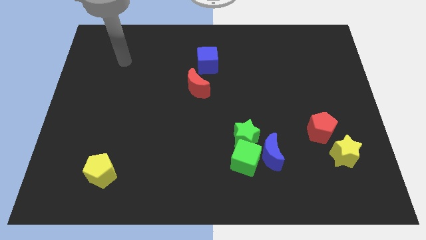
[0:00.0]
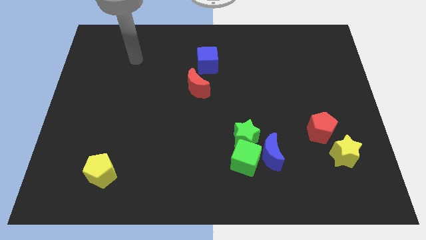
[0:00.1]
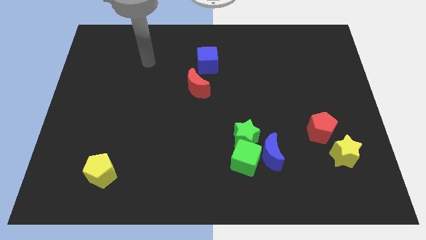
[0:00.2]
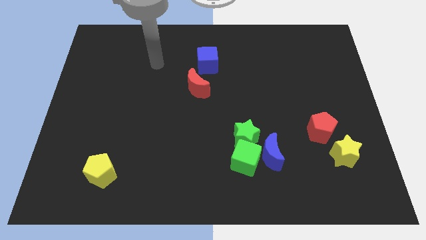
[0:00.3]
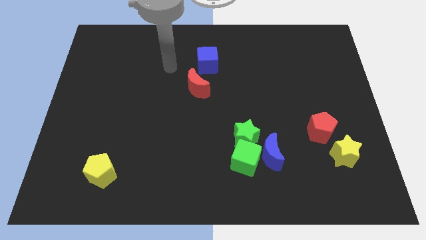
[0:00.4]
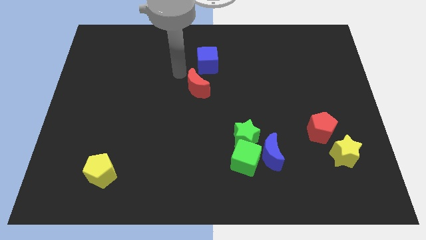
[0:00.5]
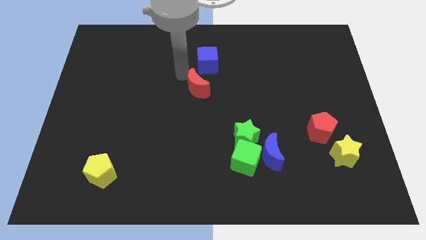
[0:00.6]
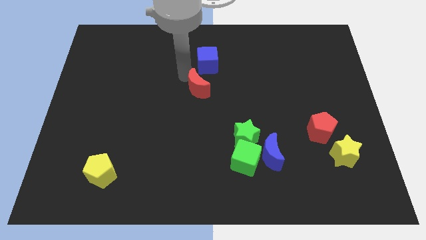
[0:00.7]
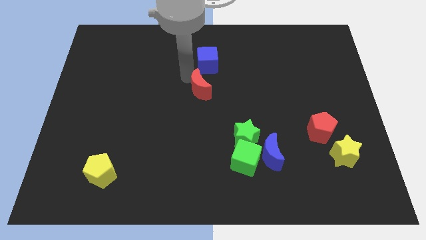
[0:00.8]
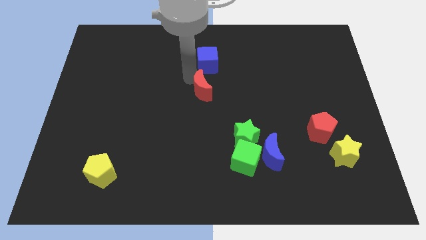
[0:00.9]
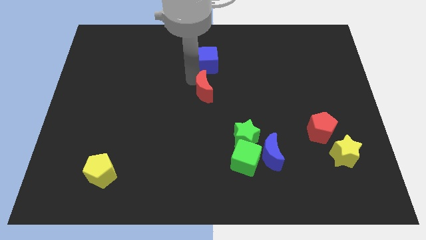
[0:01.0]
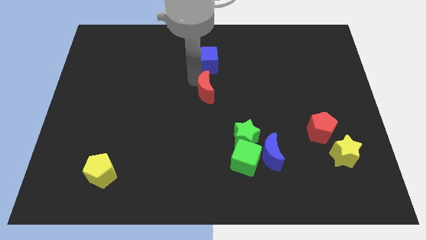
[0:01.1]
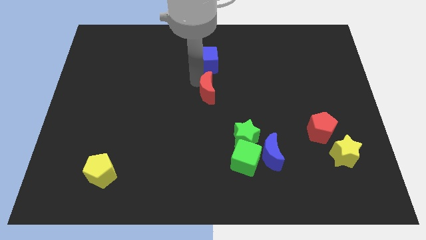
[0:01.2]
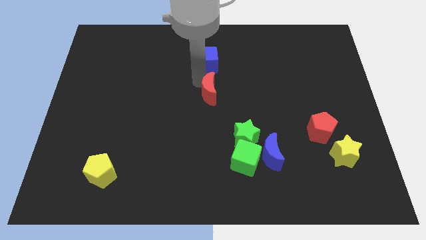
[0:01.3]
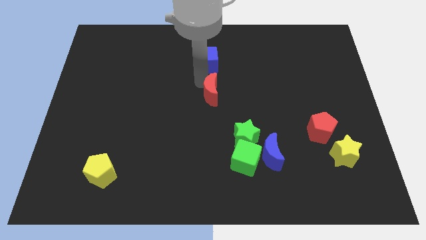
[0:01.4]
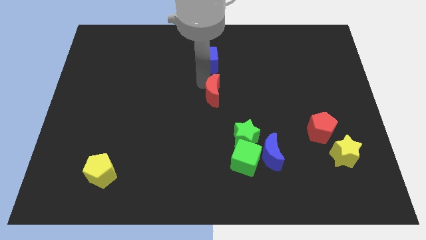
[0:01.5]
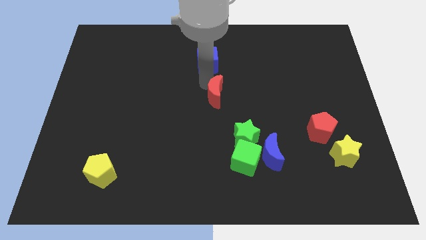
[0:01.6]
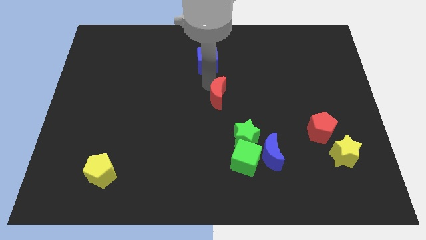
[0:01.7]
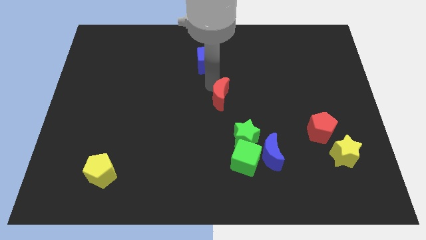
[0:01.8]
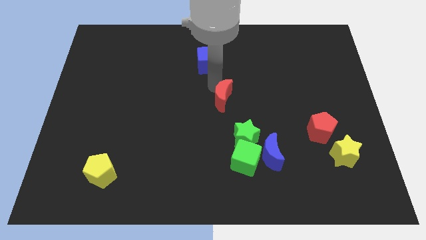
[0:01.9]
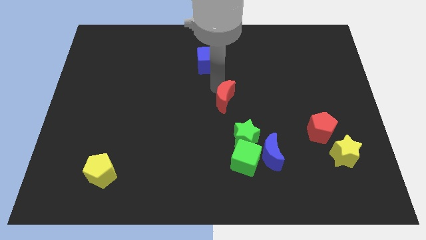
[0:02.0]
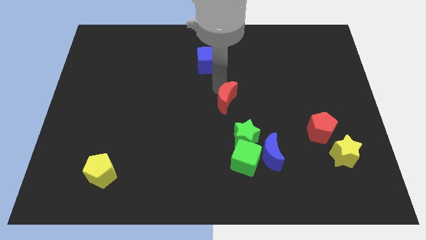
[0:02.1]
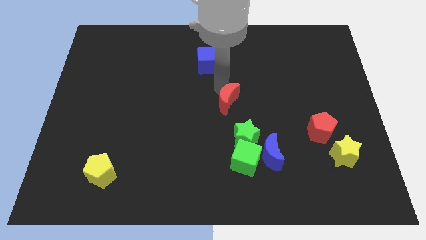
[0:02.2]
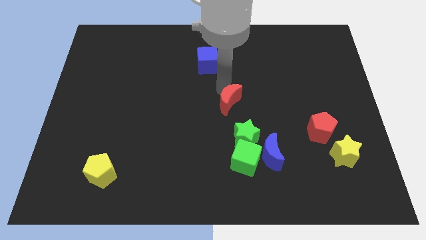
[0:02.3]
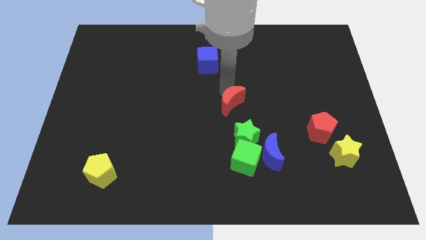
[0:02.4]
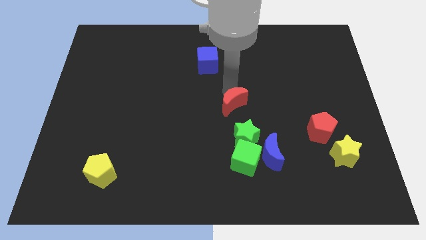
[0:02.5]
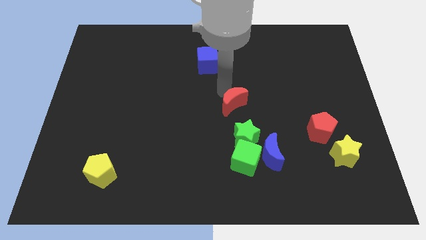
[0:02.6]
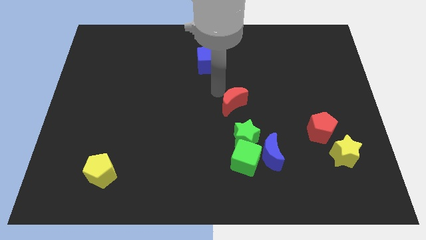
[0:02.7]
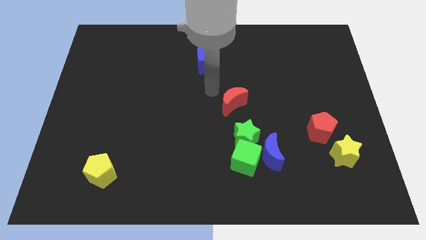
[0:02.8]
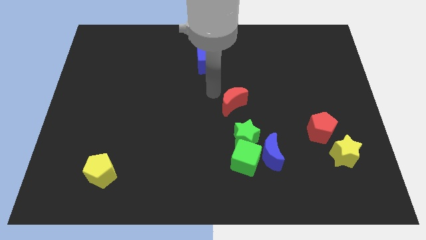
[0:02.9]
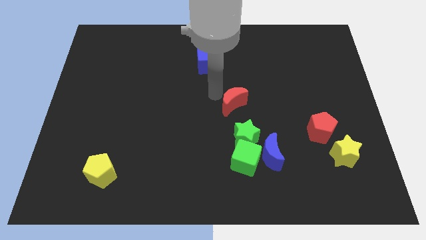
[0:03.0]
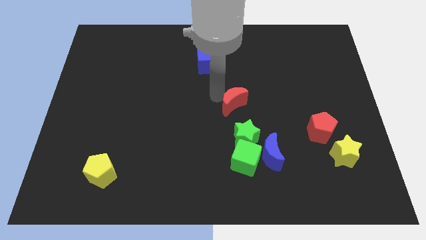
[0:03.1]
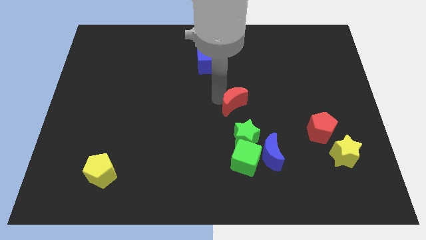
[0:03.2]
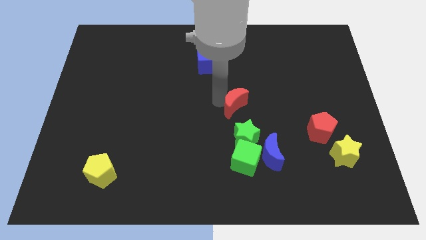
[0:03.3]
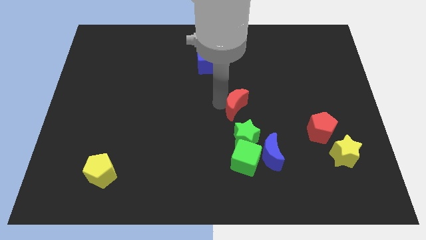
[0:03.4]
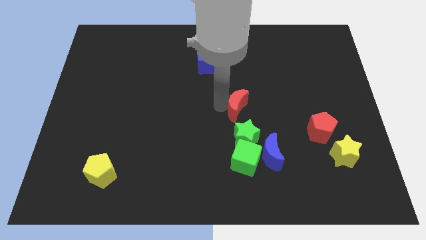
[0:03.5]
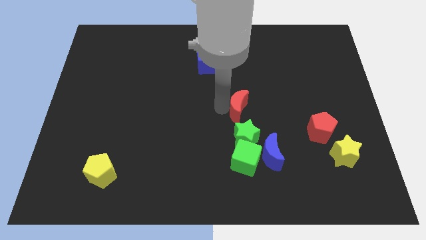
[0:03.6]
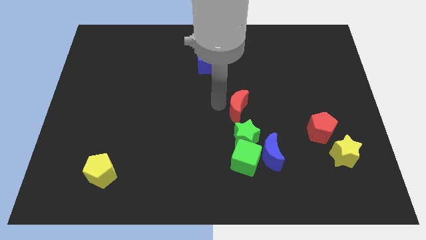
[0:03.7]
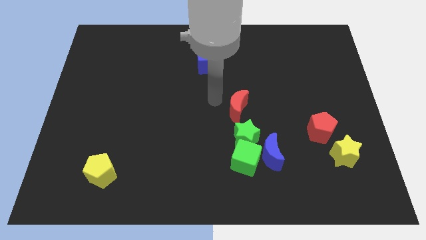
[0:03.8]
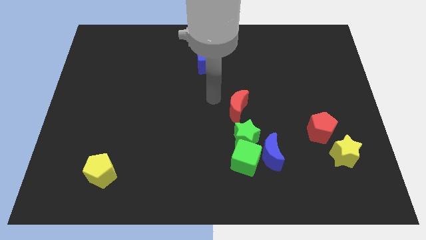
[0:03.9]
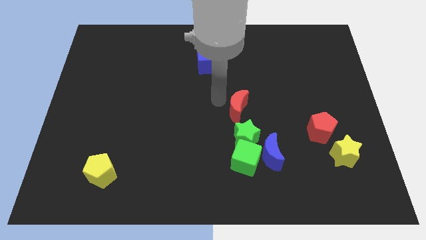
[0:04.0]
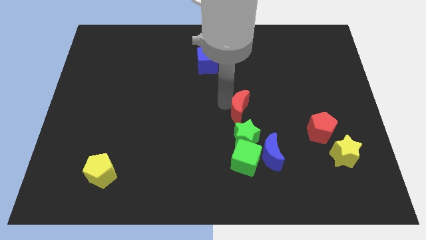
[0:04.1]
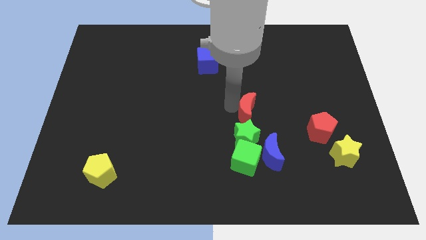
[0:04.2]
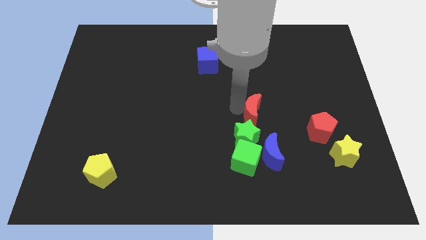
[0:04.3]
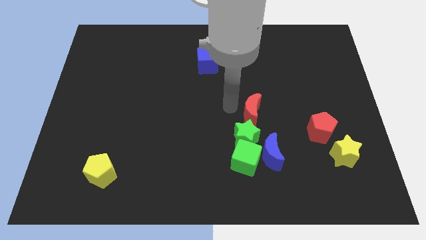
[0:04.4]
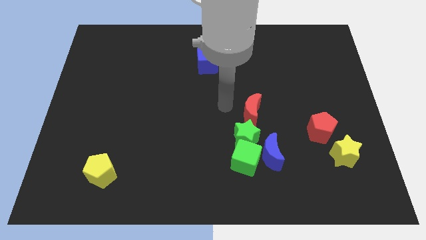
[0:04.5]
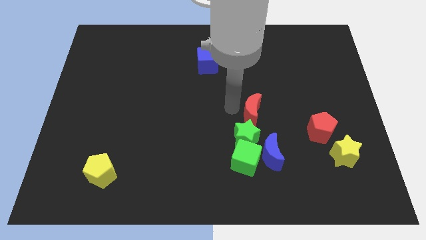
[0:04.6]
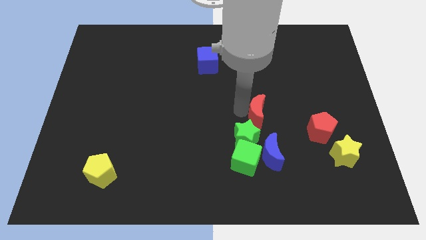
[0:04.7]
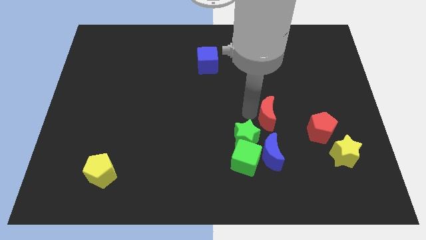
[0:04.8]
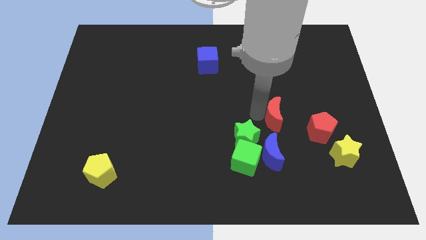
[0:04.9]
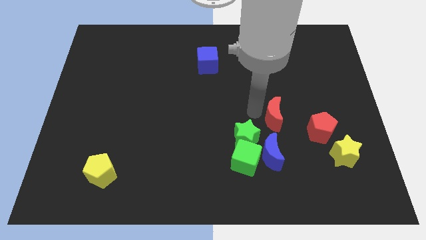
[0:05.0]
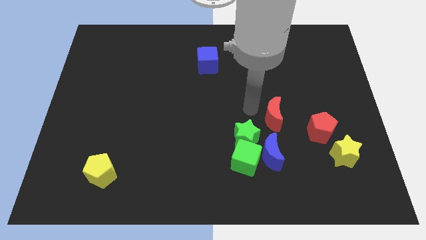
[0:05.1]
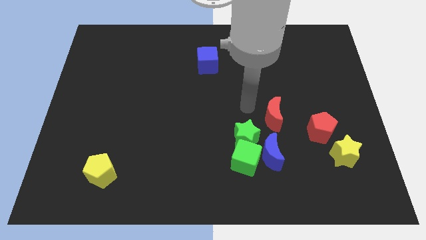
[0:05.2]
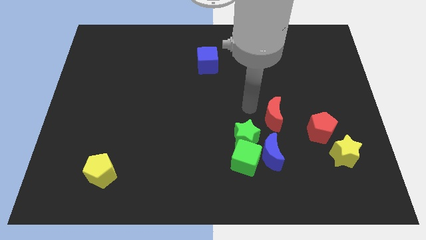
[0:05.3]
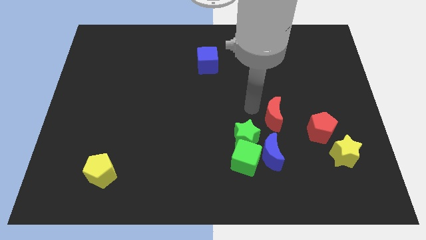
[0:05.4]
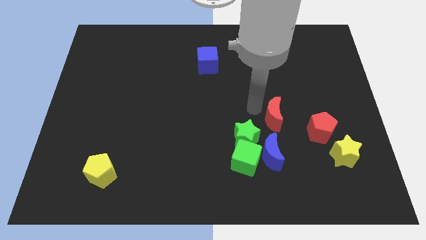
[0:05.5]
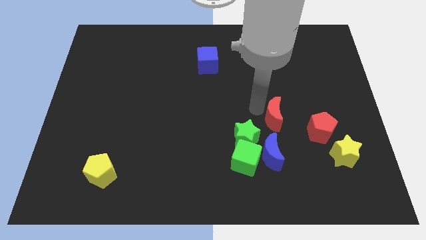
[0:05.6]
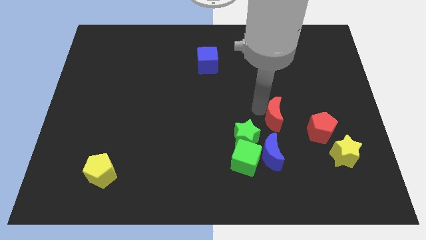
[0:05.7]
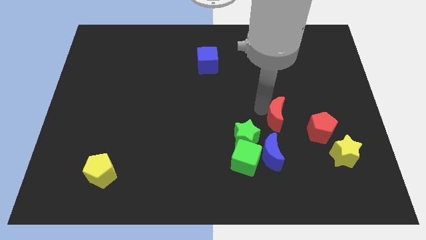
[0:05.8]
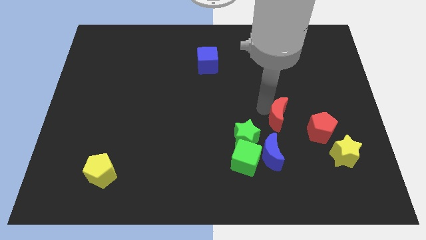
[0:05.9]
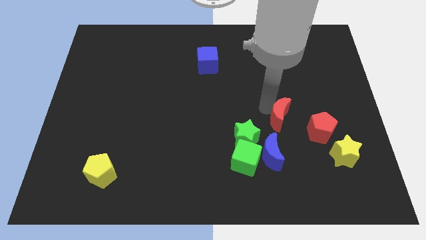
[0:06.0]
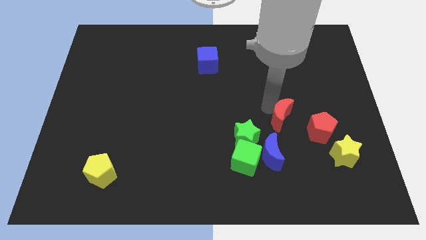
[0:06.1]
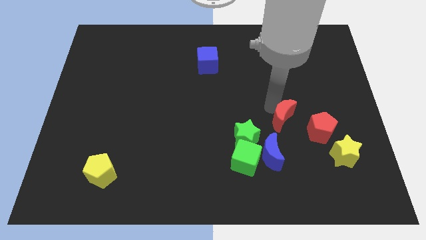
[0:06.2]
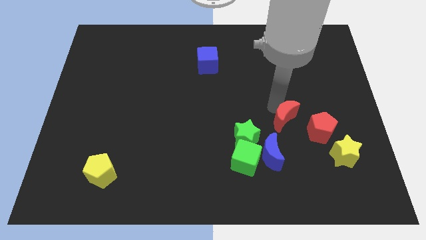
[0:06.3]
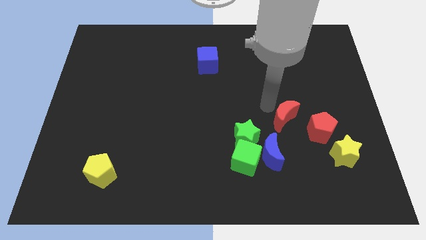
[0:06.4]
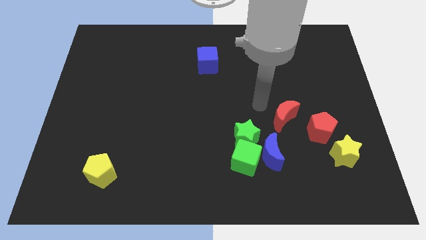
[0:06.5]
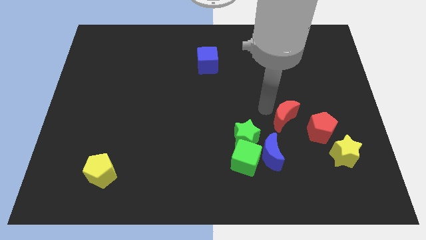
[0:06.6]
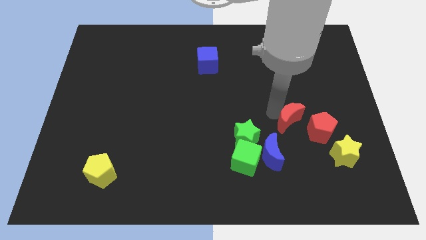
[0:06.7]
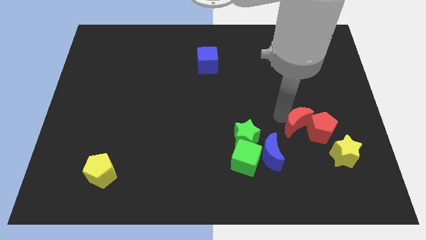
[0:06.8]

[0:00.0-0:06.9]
put the red moon diagonally up and to the left of the yellow star

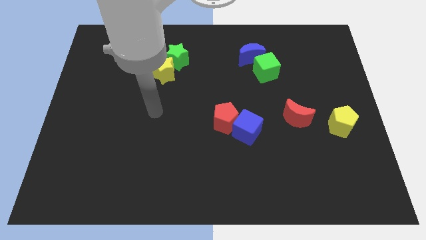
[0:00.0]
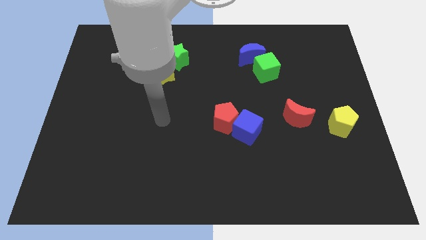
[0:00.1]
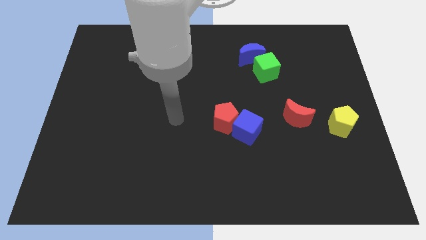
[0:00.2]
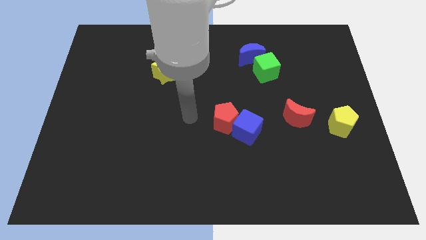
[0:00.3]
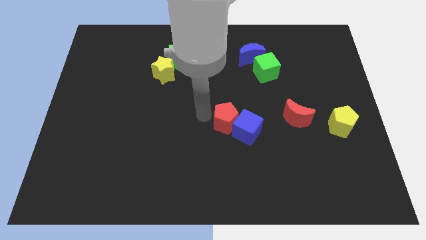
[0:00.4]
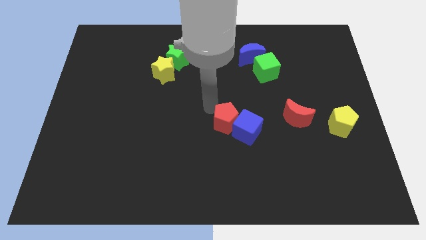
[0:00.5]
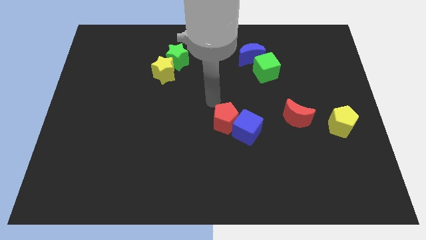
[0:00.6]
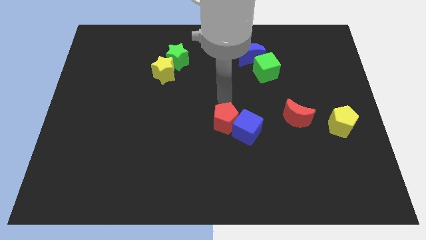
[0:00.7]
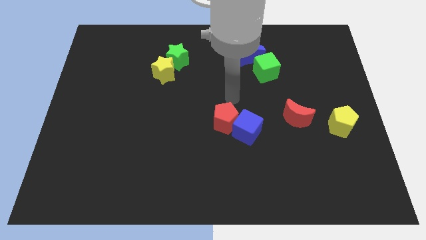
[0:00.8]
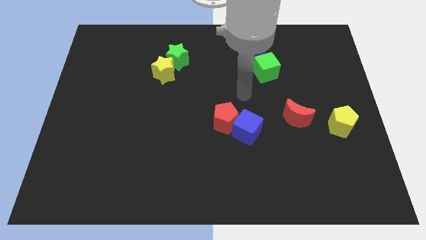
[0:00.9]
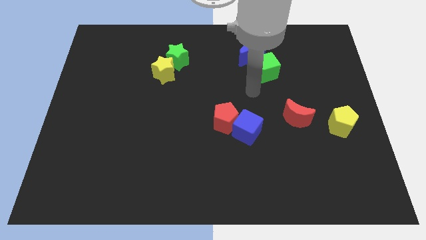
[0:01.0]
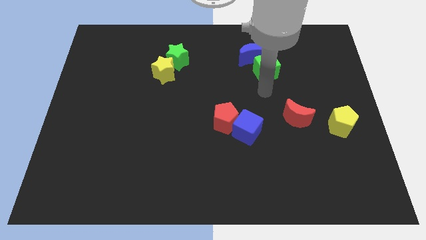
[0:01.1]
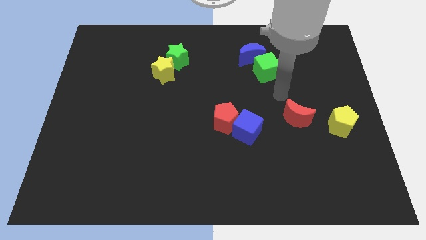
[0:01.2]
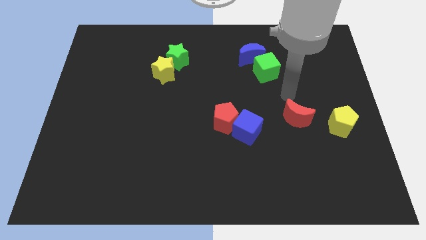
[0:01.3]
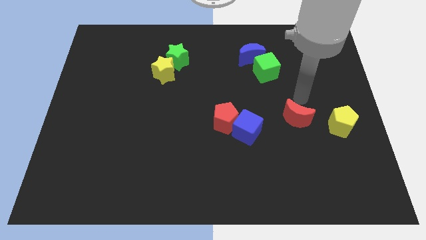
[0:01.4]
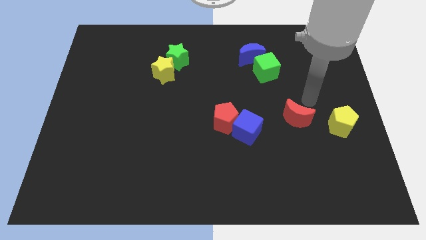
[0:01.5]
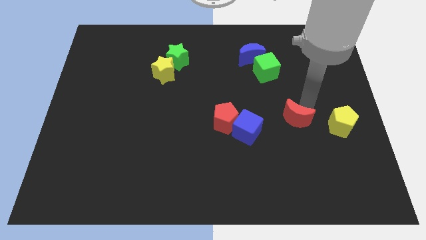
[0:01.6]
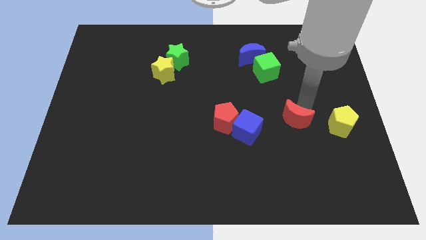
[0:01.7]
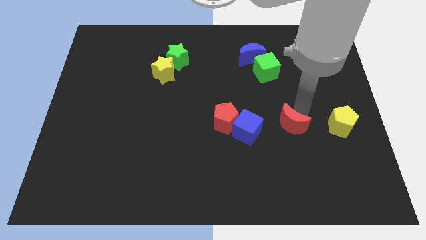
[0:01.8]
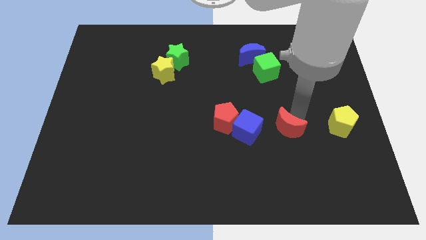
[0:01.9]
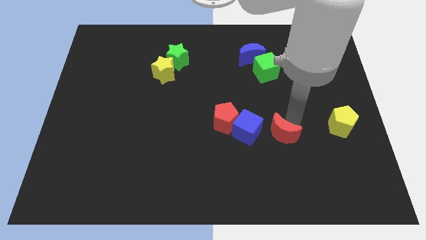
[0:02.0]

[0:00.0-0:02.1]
move the red moon to the bottom right of the blue cube
